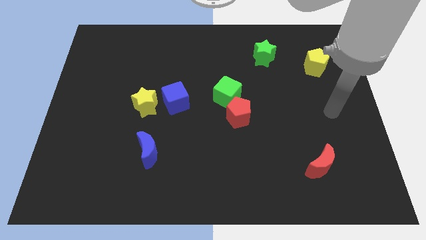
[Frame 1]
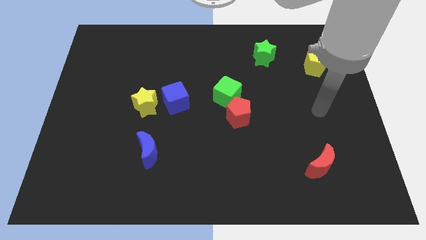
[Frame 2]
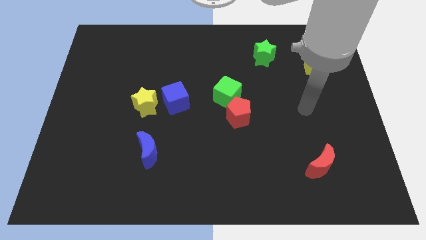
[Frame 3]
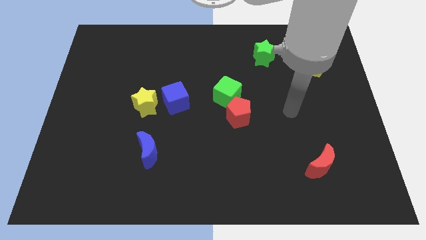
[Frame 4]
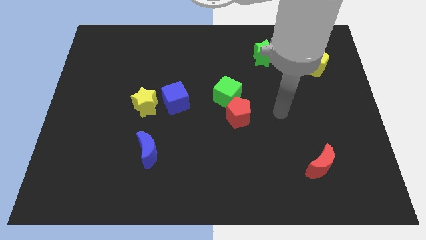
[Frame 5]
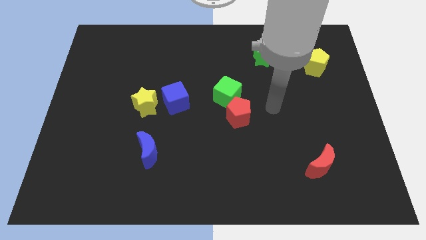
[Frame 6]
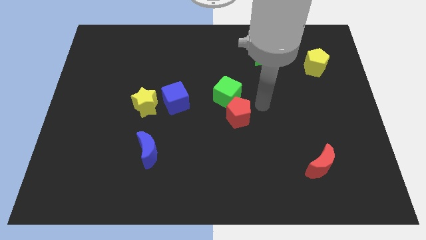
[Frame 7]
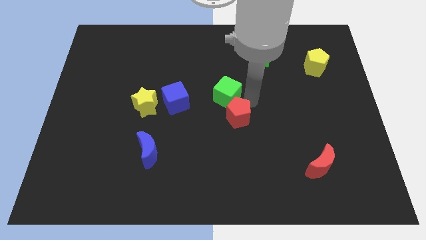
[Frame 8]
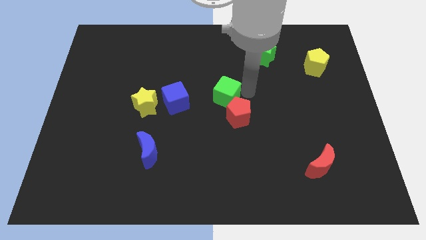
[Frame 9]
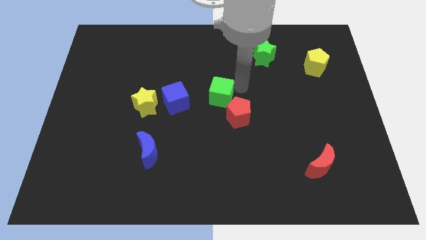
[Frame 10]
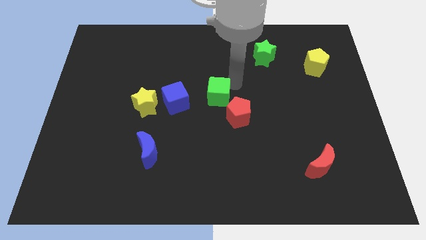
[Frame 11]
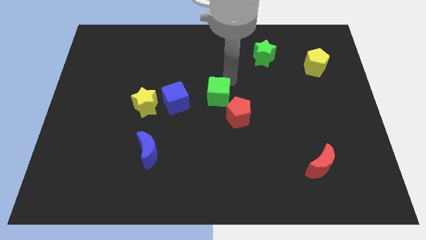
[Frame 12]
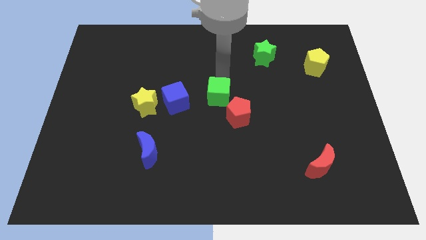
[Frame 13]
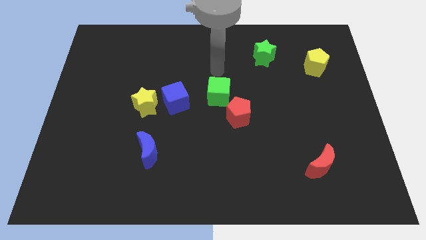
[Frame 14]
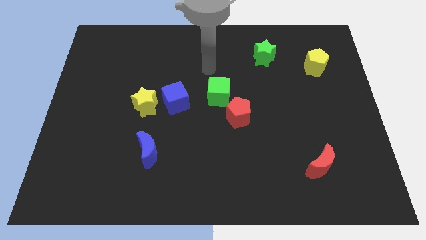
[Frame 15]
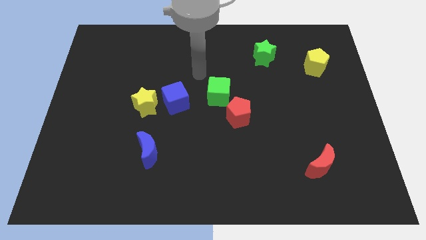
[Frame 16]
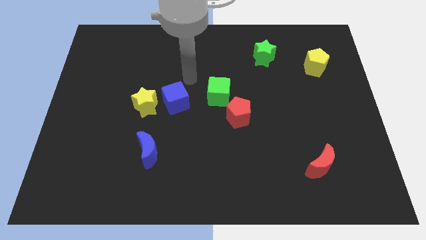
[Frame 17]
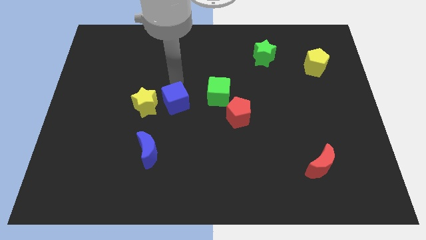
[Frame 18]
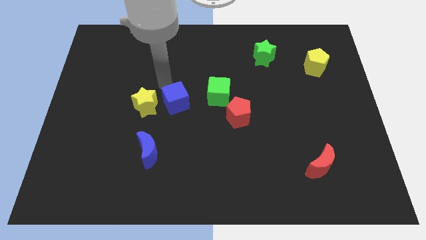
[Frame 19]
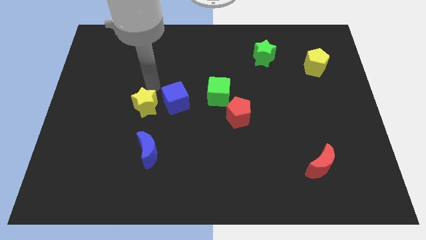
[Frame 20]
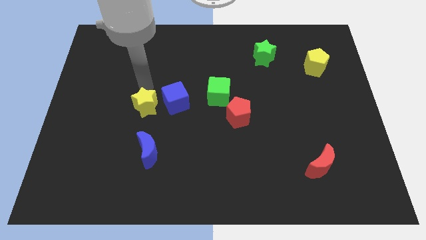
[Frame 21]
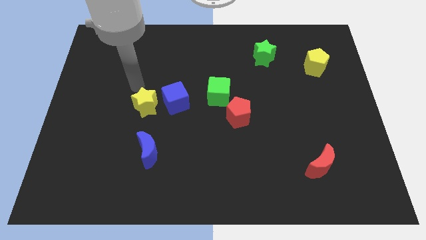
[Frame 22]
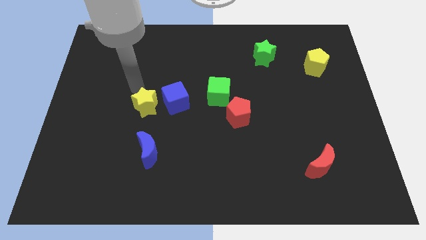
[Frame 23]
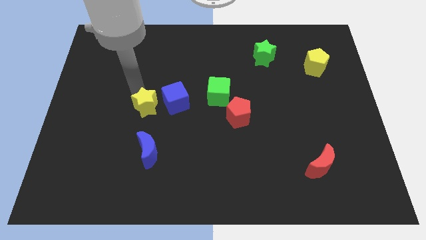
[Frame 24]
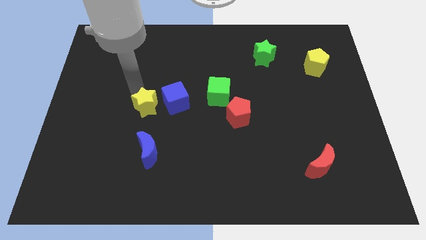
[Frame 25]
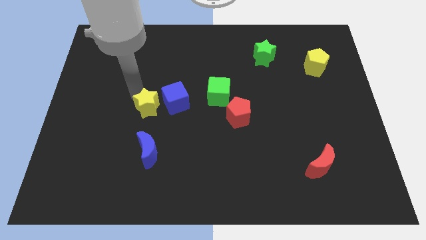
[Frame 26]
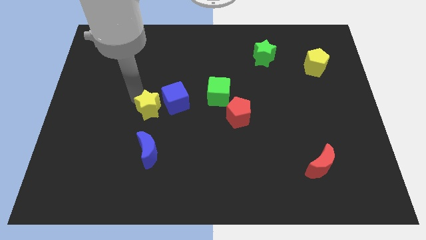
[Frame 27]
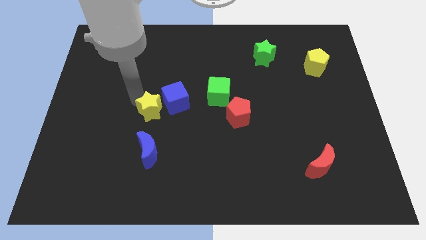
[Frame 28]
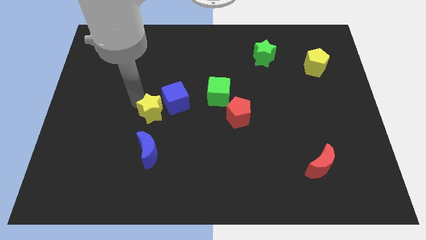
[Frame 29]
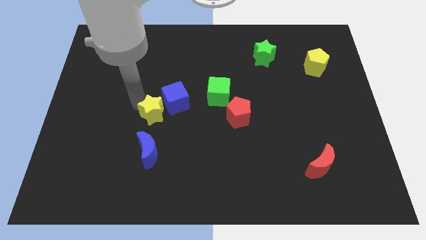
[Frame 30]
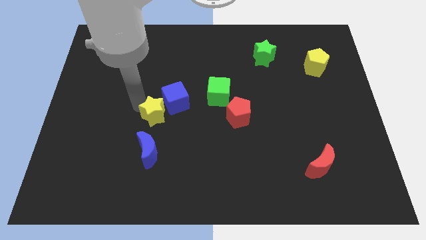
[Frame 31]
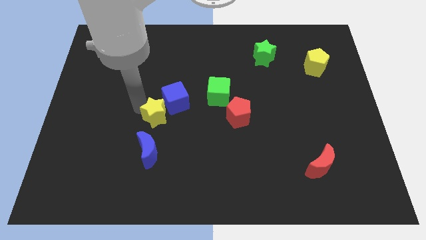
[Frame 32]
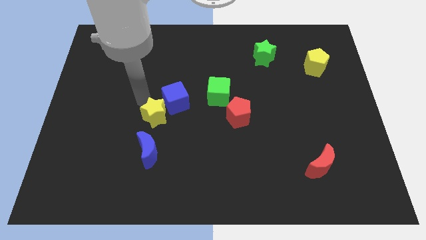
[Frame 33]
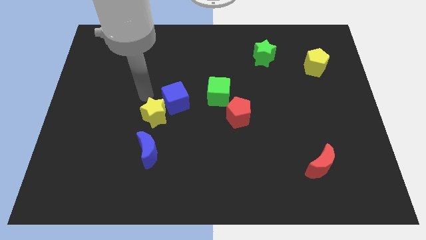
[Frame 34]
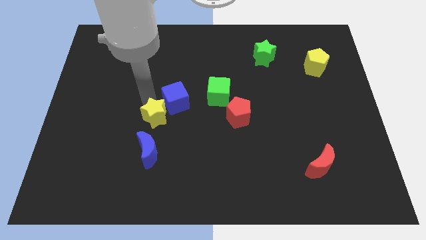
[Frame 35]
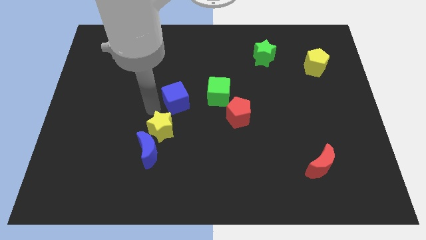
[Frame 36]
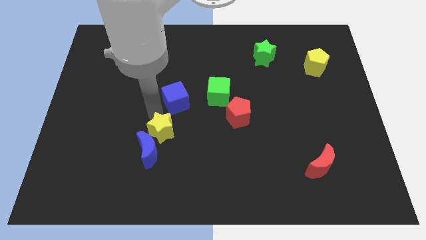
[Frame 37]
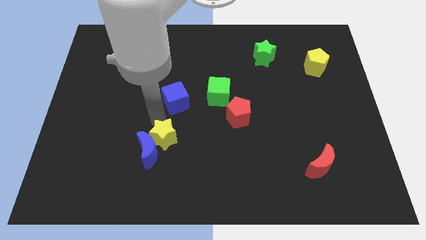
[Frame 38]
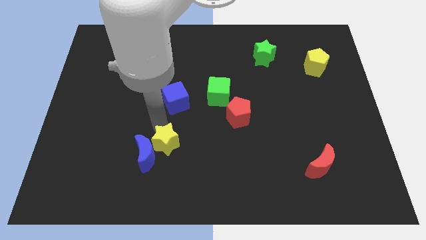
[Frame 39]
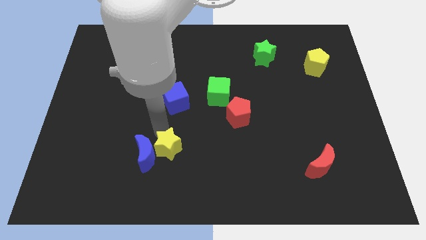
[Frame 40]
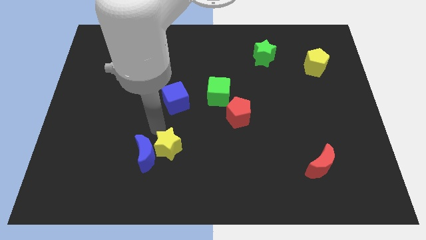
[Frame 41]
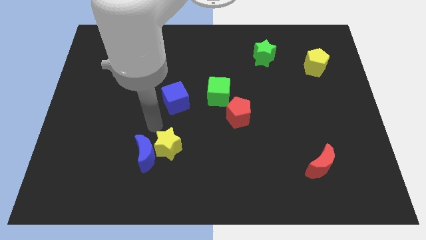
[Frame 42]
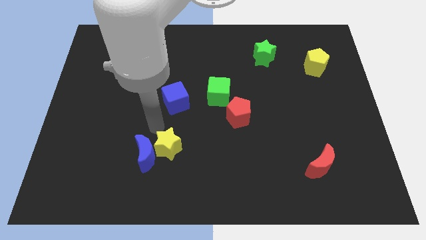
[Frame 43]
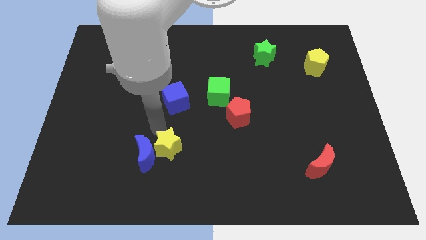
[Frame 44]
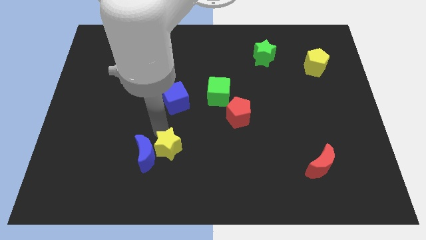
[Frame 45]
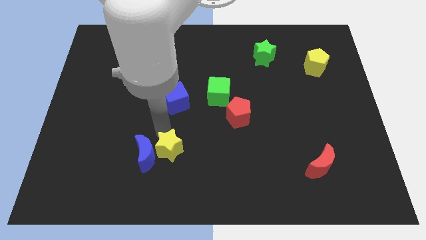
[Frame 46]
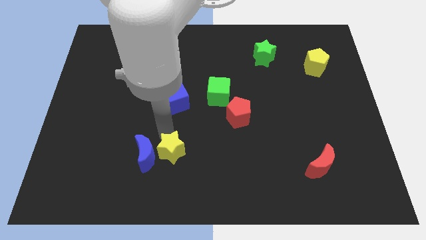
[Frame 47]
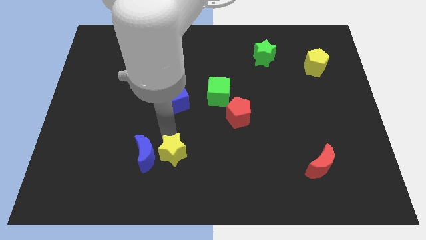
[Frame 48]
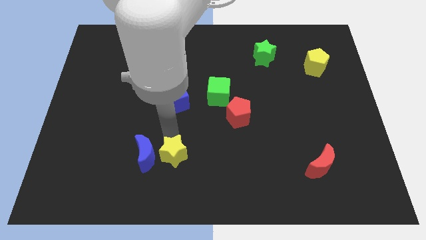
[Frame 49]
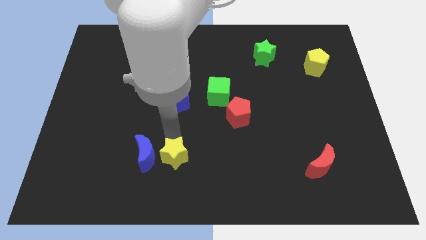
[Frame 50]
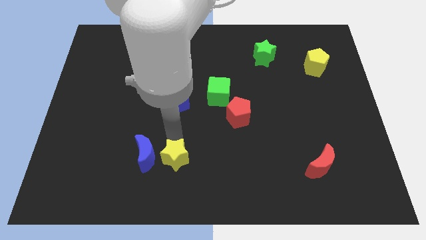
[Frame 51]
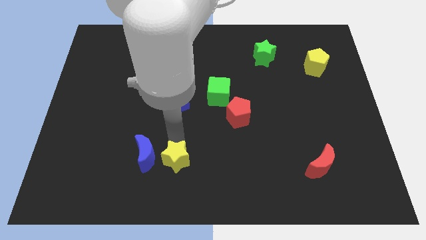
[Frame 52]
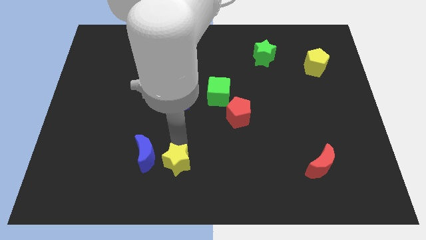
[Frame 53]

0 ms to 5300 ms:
move the yellow star to the bottom side
